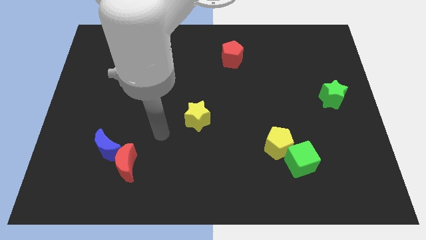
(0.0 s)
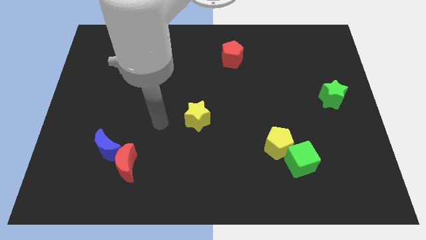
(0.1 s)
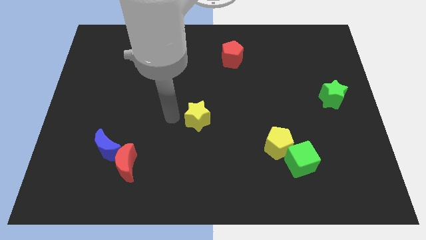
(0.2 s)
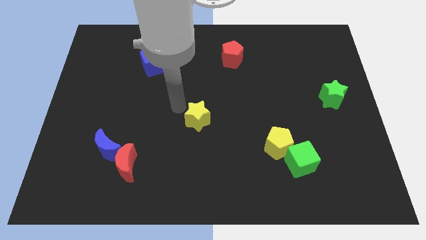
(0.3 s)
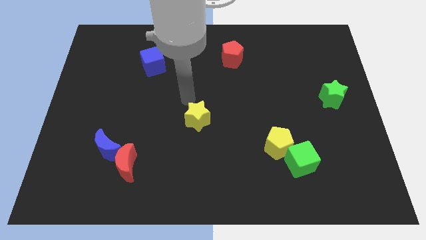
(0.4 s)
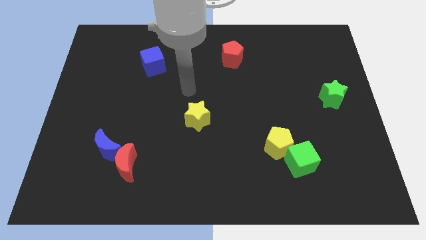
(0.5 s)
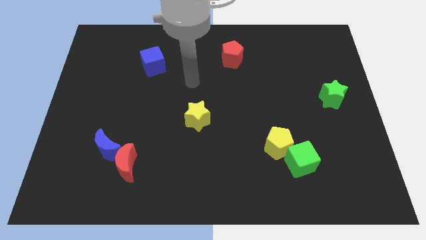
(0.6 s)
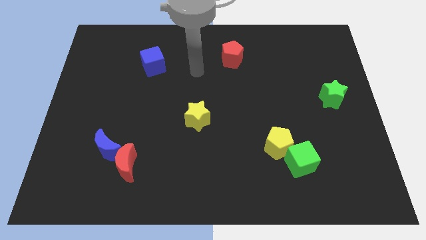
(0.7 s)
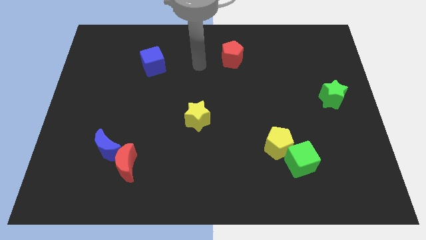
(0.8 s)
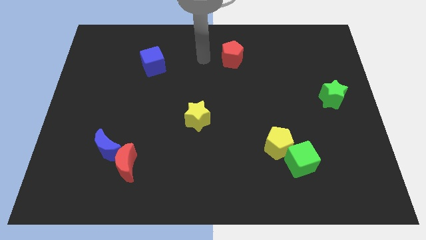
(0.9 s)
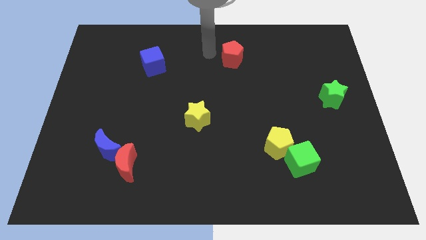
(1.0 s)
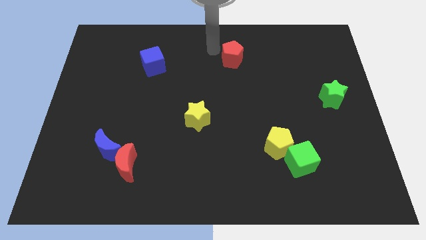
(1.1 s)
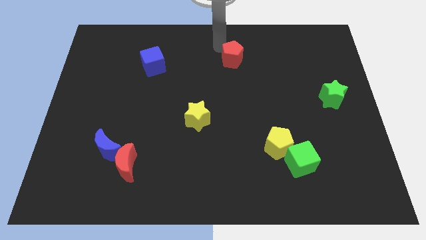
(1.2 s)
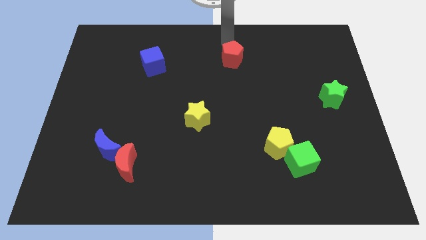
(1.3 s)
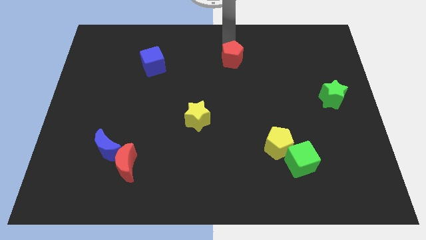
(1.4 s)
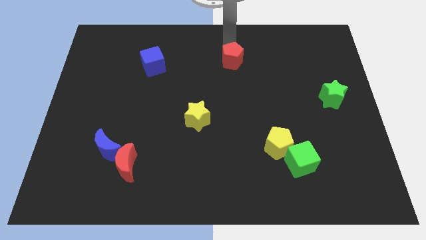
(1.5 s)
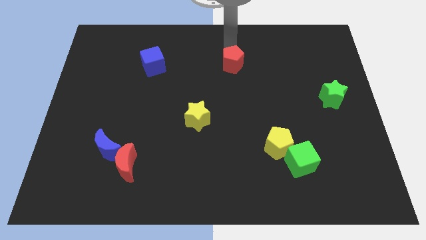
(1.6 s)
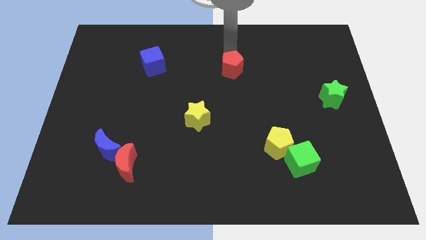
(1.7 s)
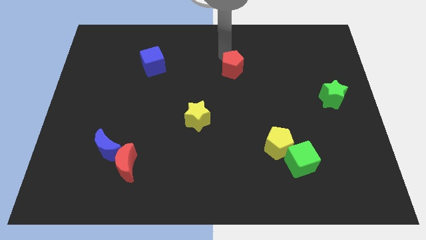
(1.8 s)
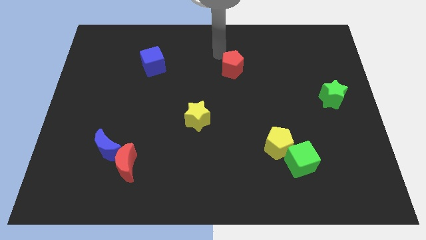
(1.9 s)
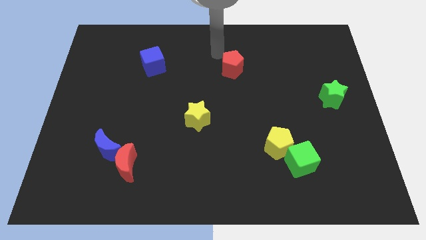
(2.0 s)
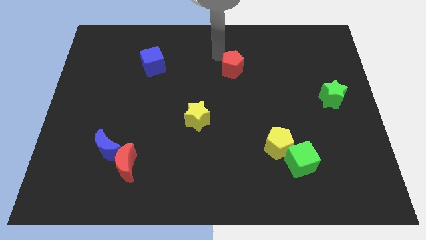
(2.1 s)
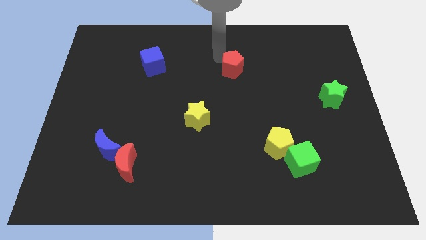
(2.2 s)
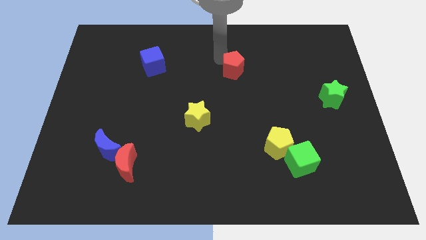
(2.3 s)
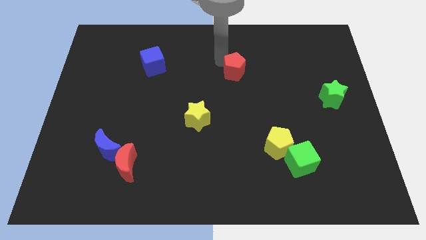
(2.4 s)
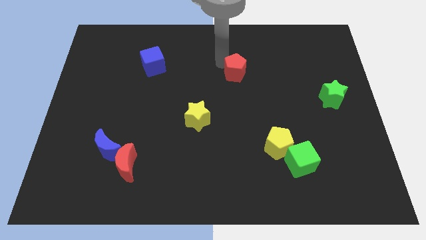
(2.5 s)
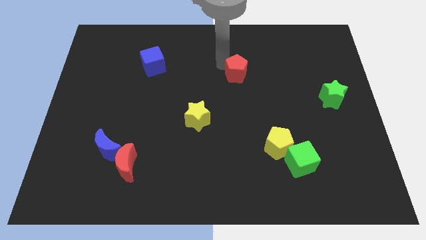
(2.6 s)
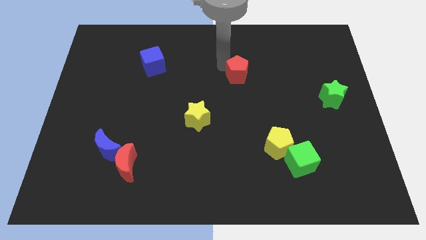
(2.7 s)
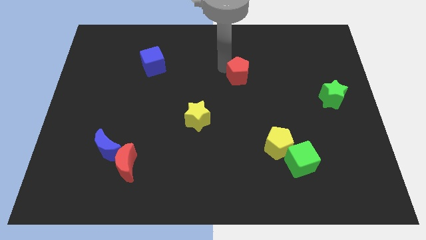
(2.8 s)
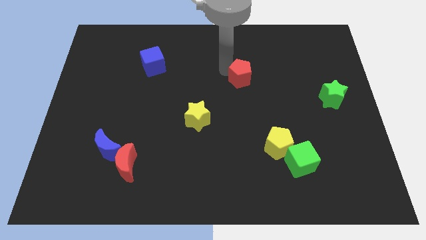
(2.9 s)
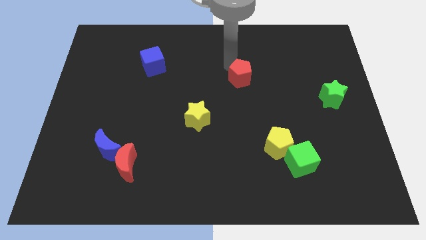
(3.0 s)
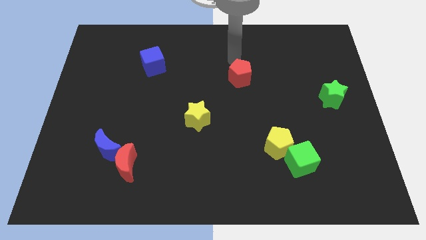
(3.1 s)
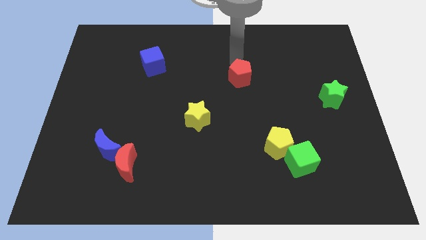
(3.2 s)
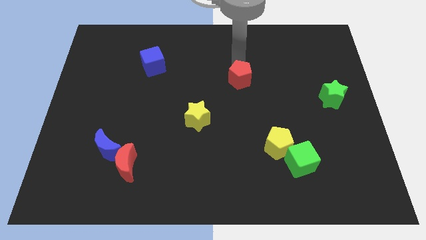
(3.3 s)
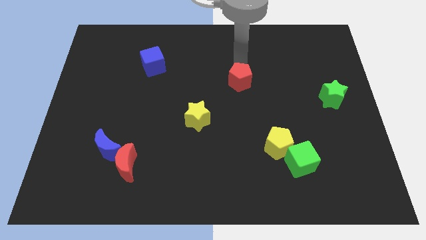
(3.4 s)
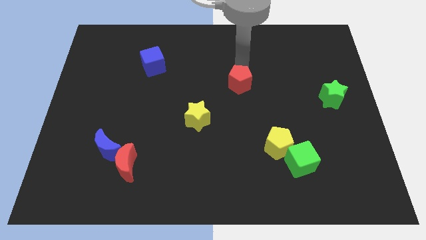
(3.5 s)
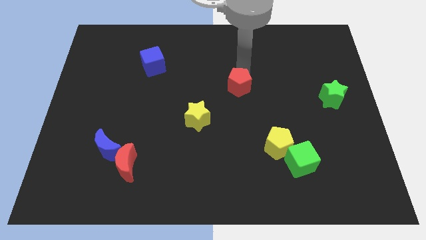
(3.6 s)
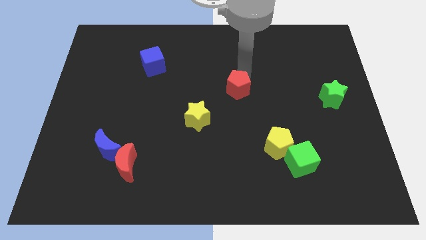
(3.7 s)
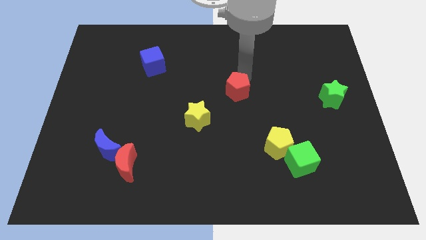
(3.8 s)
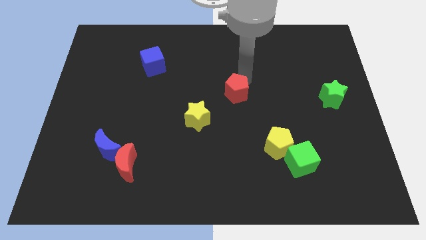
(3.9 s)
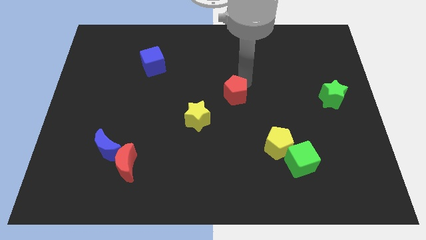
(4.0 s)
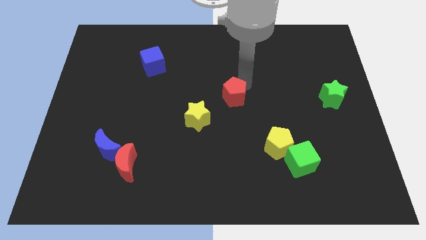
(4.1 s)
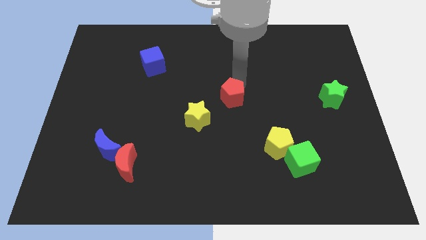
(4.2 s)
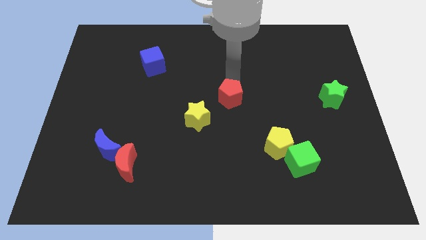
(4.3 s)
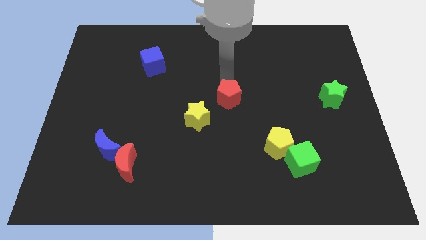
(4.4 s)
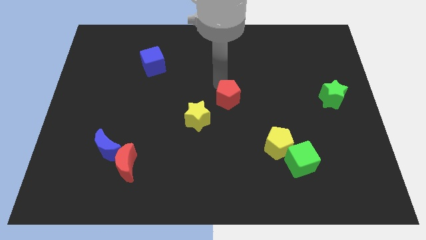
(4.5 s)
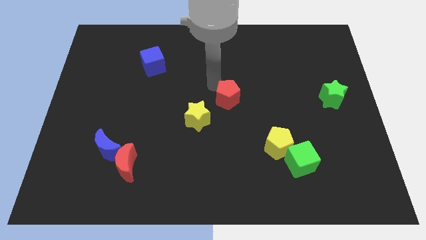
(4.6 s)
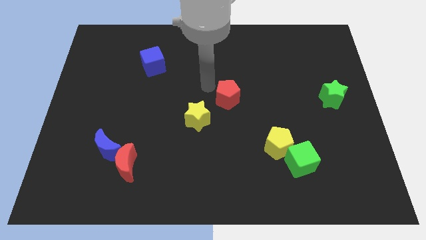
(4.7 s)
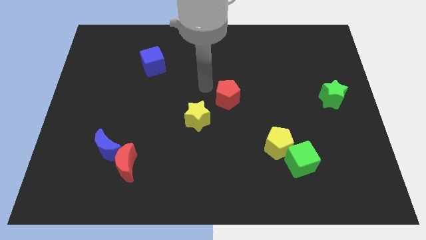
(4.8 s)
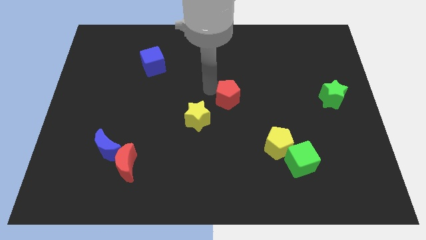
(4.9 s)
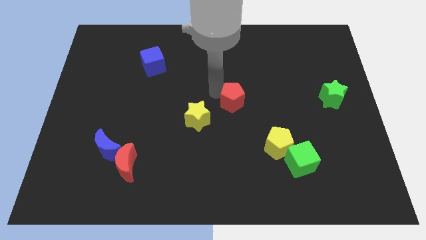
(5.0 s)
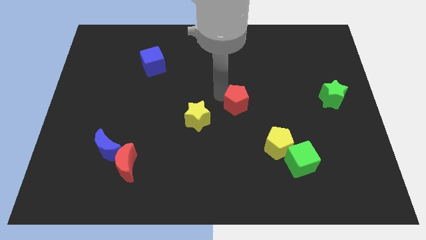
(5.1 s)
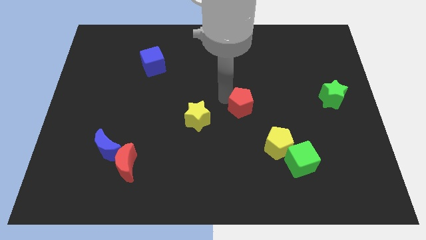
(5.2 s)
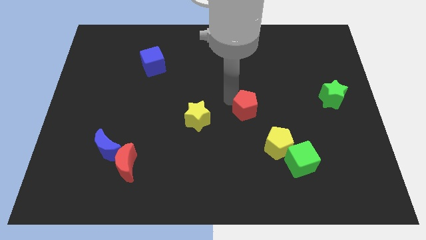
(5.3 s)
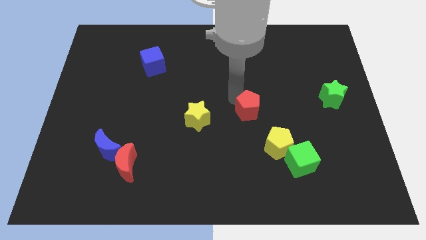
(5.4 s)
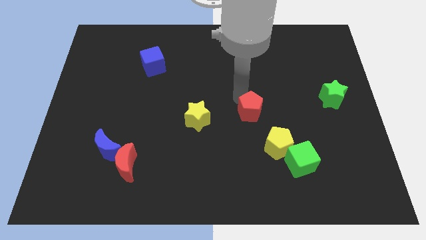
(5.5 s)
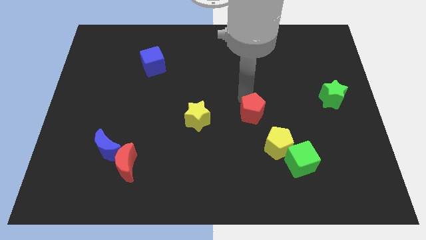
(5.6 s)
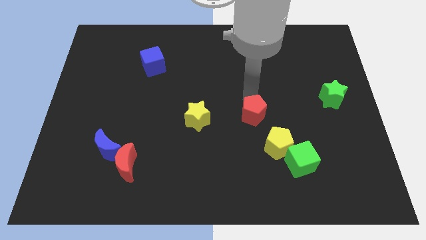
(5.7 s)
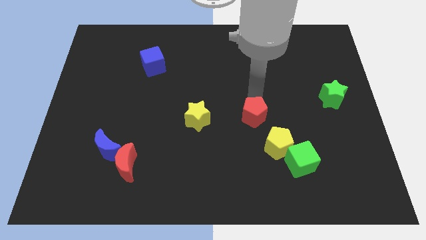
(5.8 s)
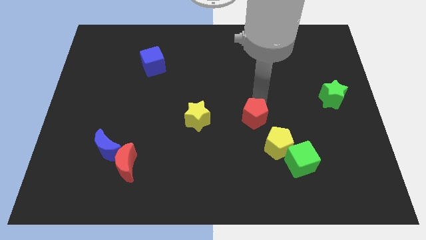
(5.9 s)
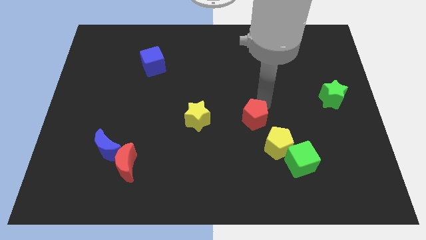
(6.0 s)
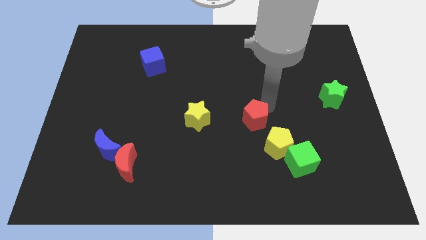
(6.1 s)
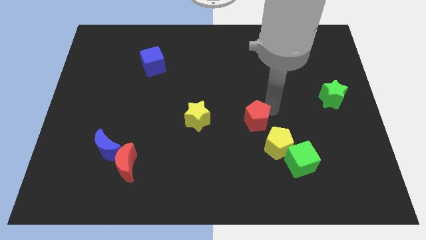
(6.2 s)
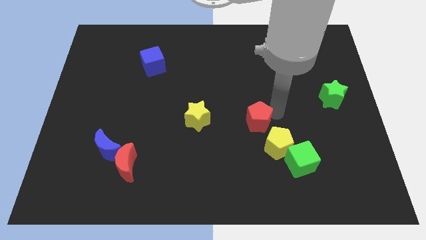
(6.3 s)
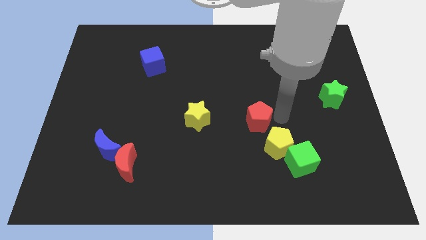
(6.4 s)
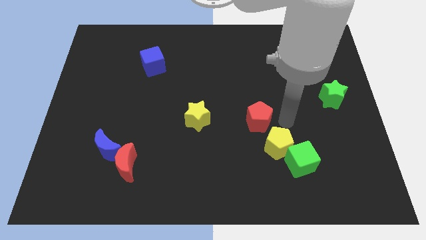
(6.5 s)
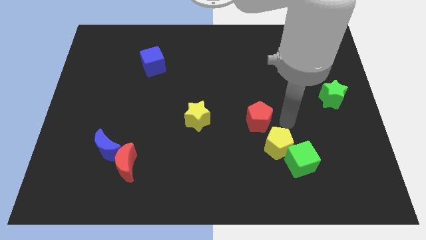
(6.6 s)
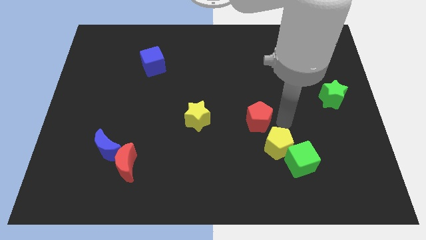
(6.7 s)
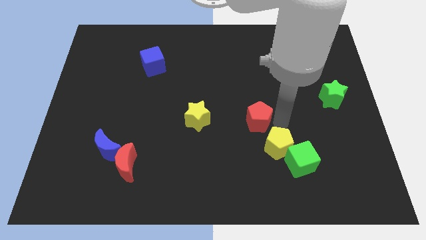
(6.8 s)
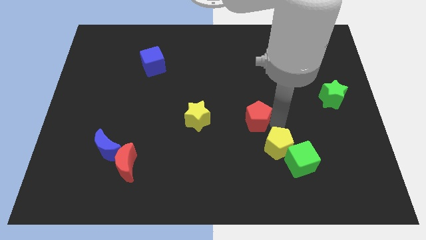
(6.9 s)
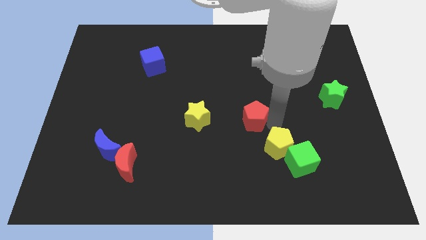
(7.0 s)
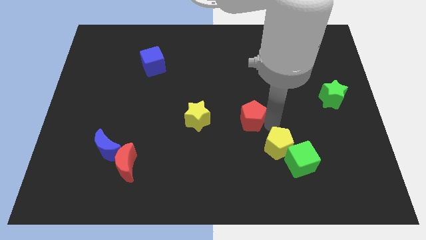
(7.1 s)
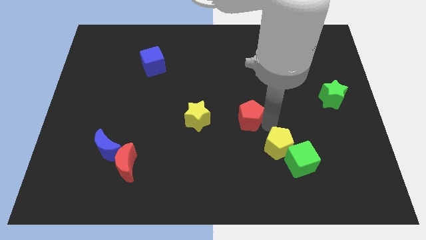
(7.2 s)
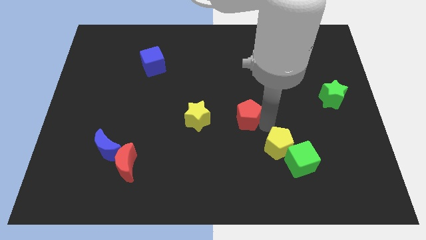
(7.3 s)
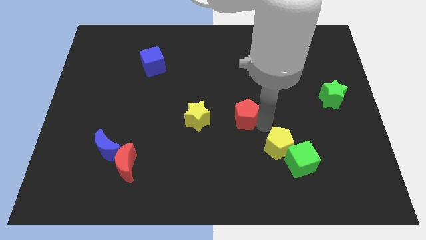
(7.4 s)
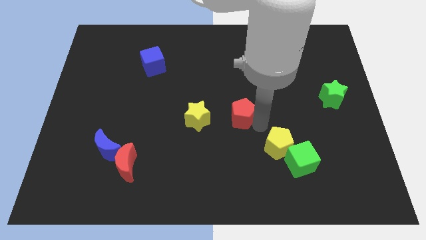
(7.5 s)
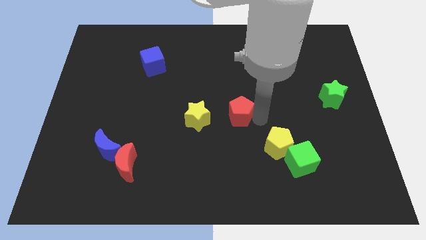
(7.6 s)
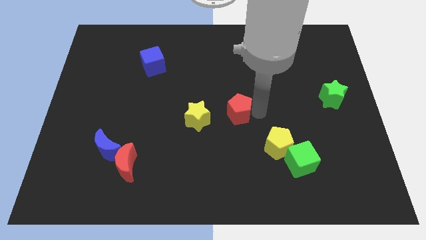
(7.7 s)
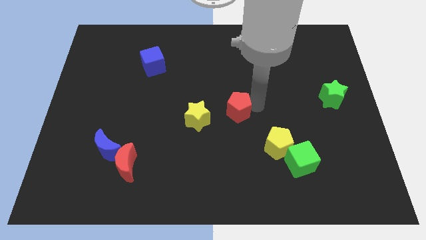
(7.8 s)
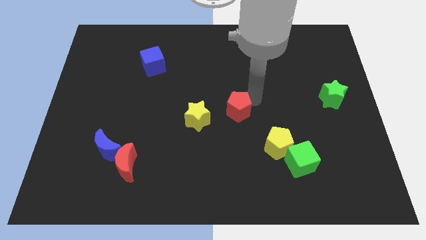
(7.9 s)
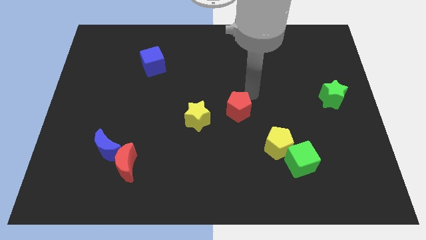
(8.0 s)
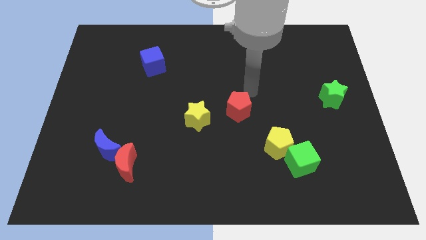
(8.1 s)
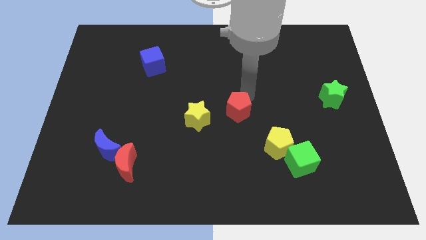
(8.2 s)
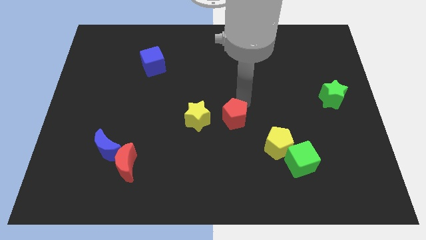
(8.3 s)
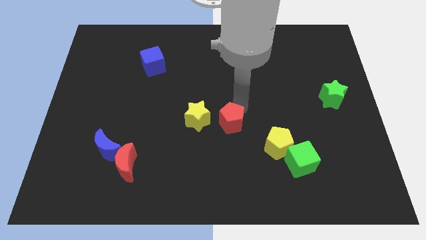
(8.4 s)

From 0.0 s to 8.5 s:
put the red pentagon diagonally down and to the right of the yellow star
